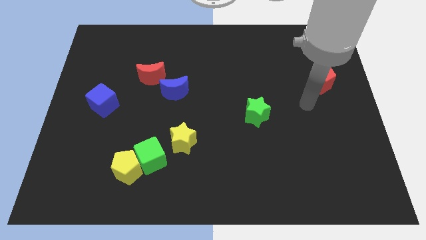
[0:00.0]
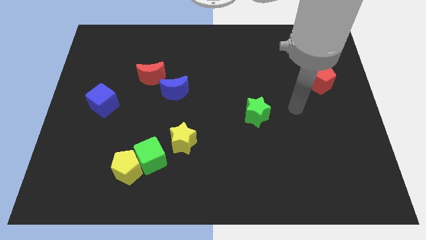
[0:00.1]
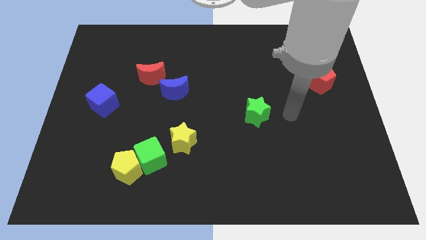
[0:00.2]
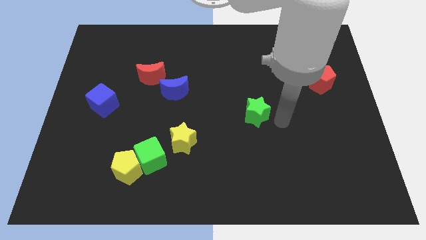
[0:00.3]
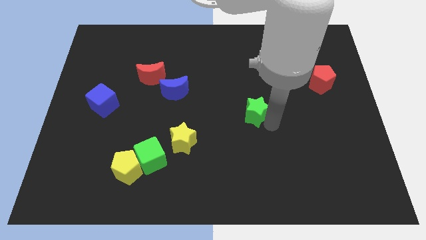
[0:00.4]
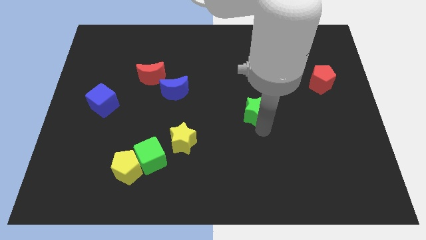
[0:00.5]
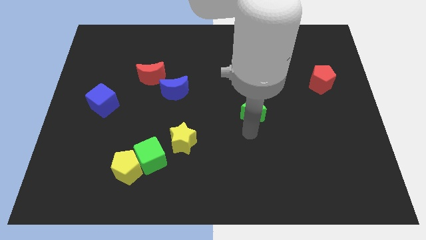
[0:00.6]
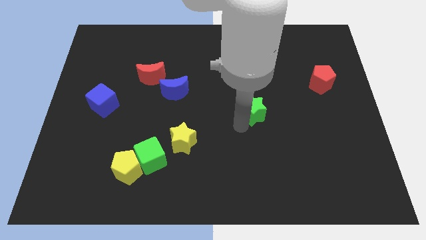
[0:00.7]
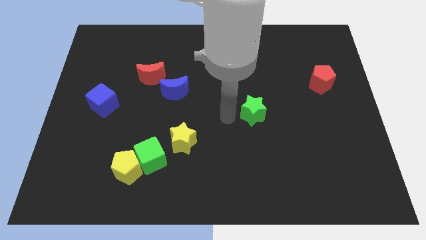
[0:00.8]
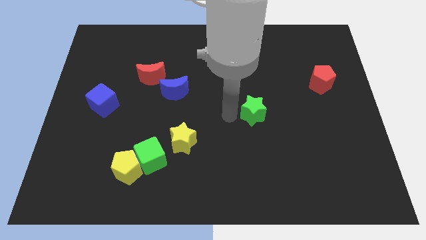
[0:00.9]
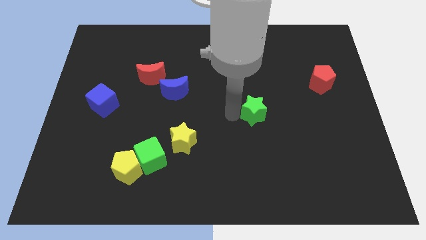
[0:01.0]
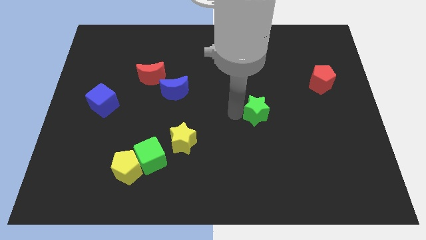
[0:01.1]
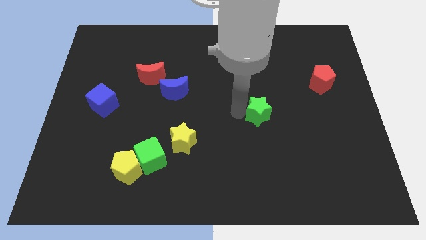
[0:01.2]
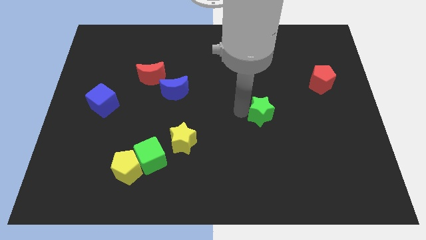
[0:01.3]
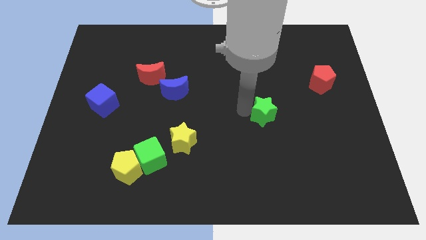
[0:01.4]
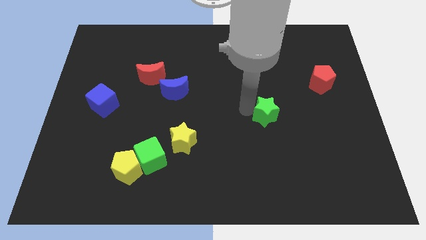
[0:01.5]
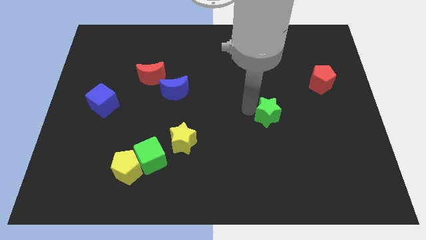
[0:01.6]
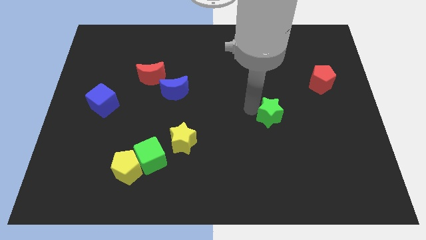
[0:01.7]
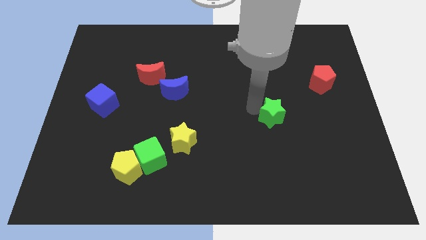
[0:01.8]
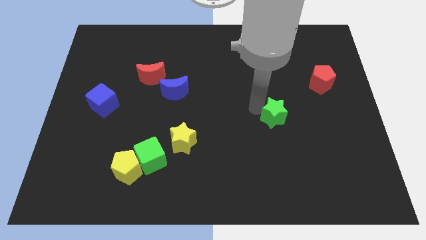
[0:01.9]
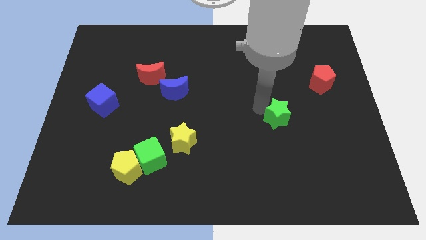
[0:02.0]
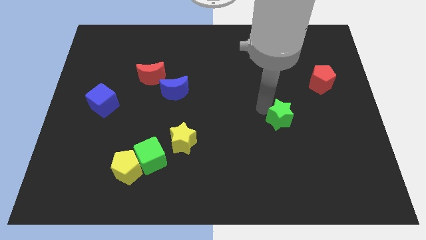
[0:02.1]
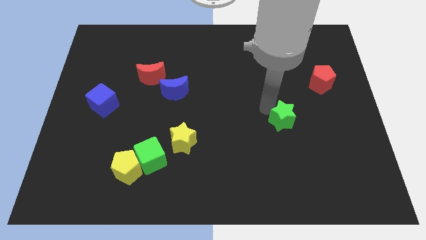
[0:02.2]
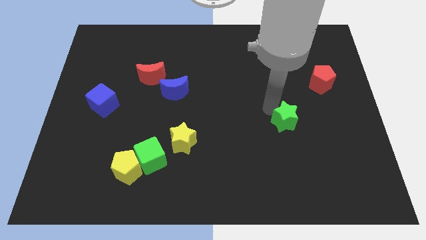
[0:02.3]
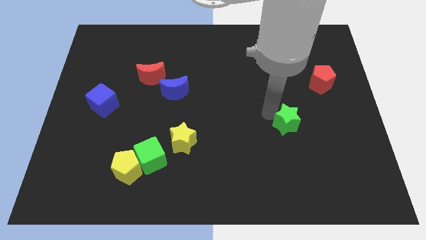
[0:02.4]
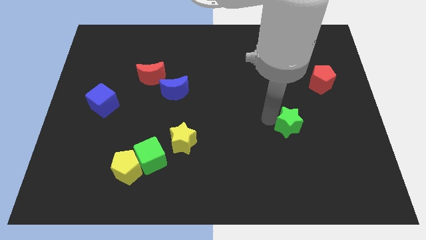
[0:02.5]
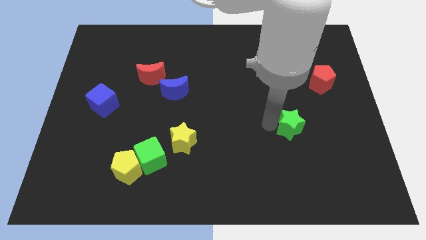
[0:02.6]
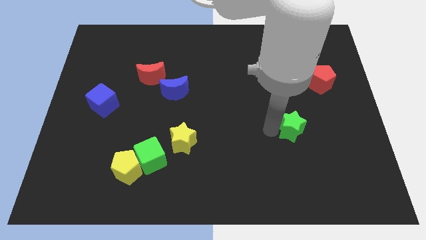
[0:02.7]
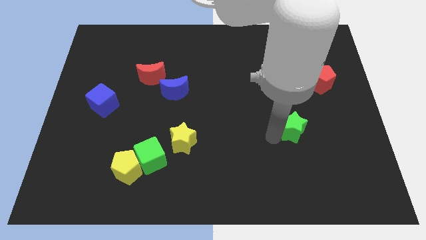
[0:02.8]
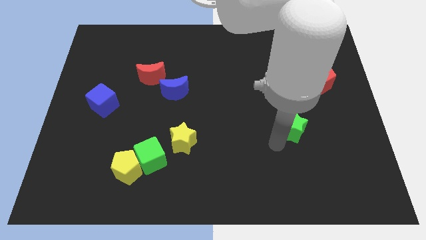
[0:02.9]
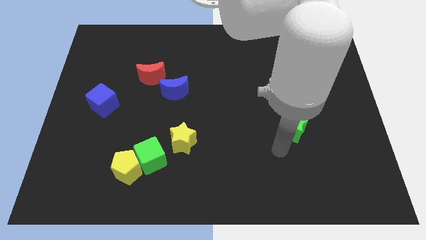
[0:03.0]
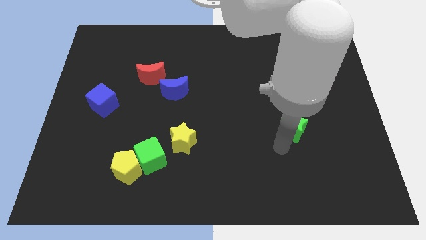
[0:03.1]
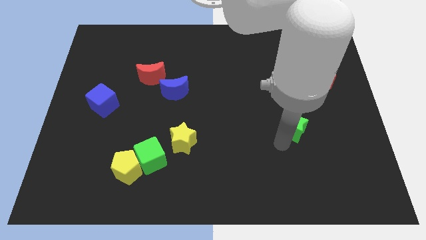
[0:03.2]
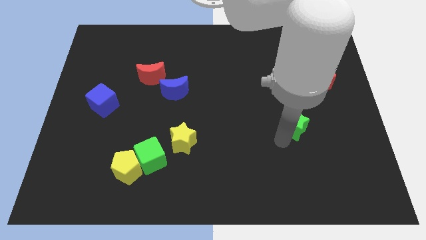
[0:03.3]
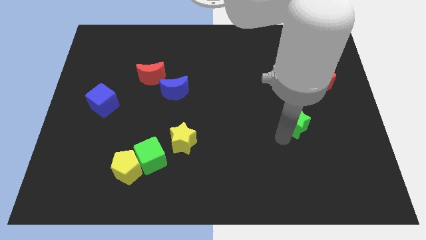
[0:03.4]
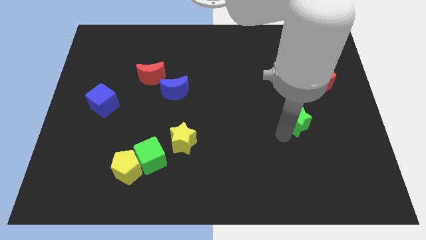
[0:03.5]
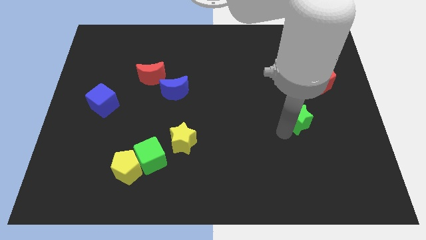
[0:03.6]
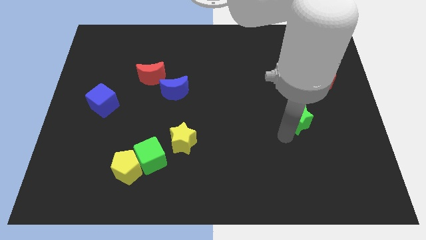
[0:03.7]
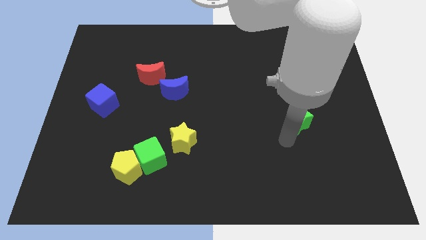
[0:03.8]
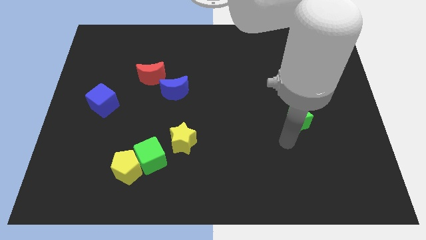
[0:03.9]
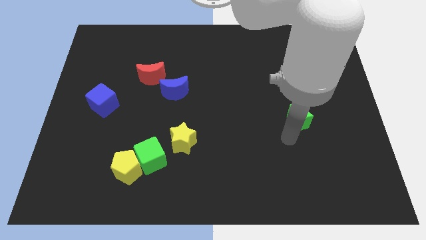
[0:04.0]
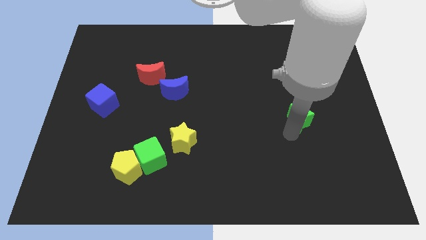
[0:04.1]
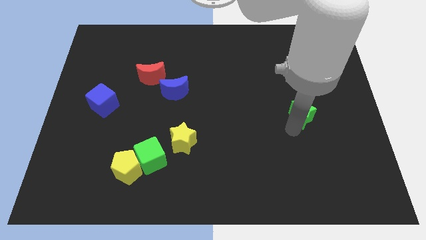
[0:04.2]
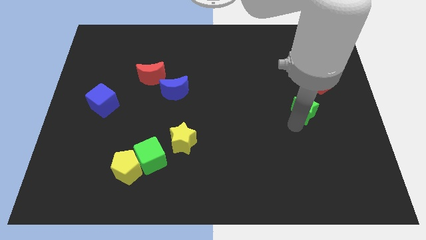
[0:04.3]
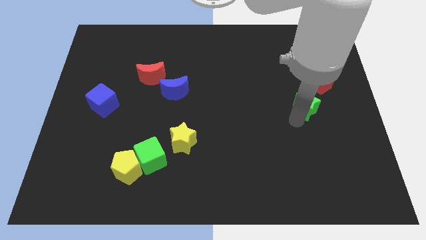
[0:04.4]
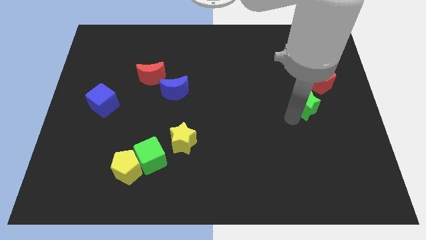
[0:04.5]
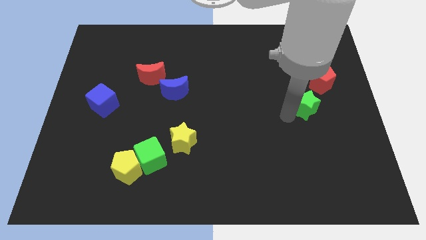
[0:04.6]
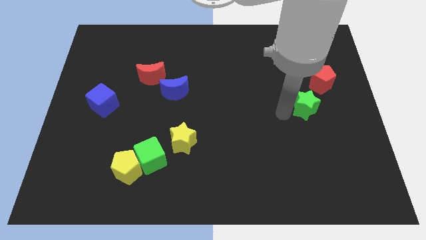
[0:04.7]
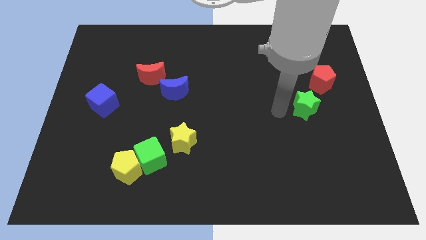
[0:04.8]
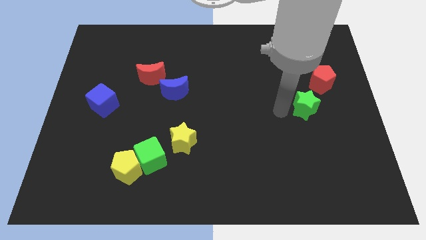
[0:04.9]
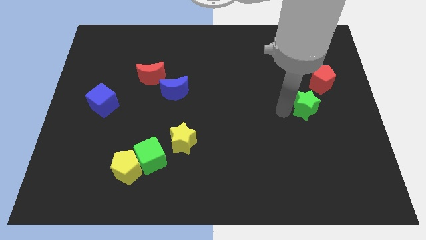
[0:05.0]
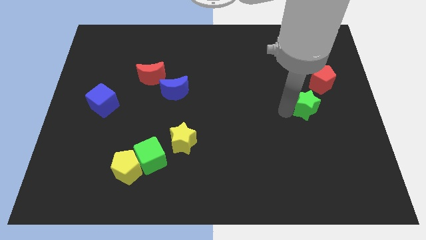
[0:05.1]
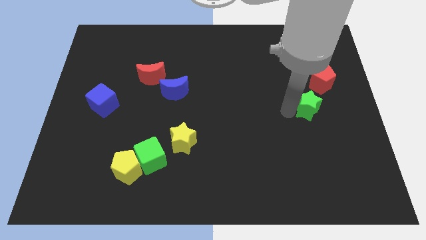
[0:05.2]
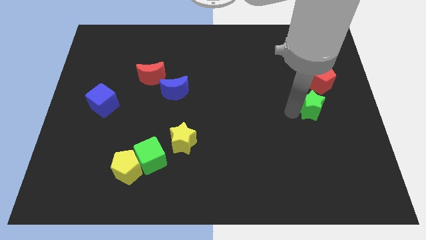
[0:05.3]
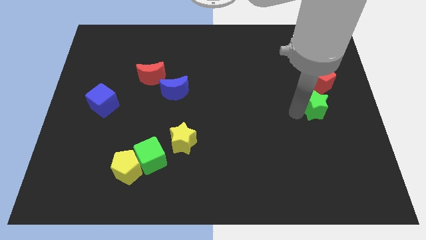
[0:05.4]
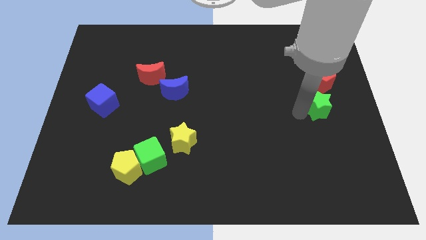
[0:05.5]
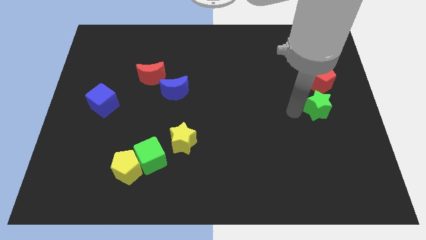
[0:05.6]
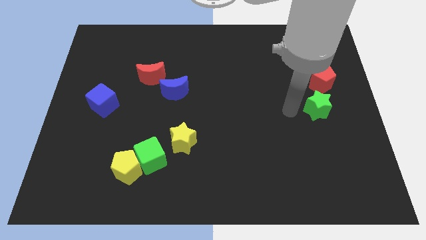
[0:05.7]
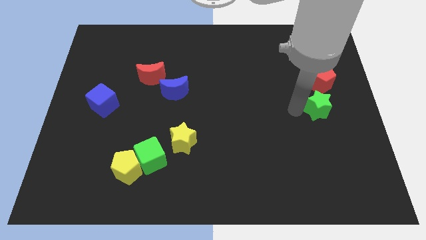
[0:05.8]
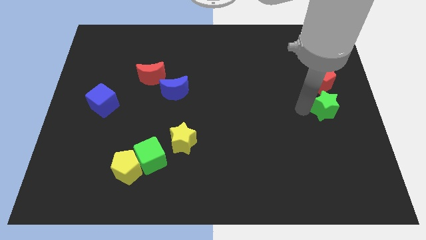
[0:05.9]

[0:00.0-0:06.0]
move the green star to the right side of the board
